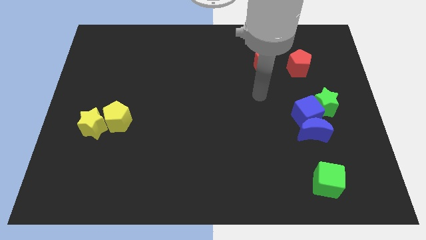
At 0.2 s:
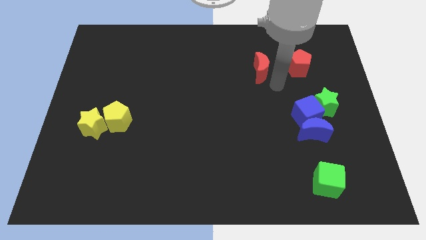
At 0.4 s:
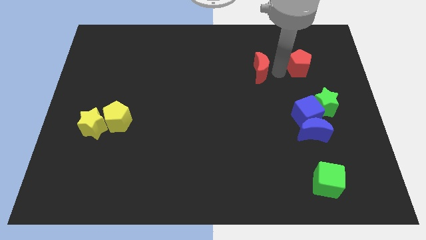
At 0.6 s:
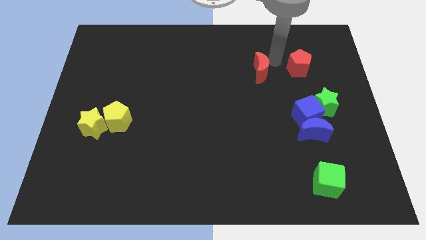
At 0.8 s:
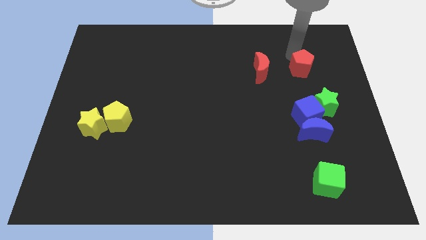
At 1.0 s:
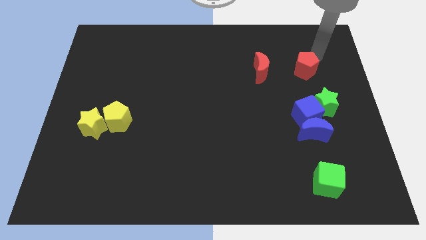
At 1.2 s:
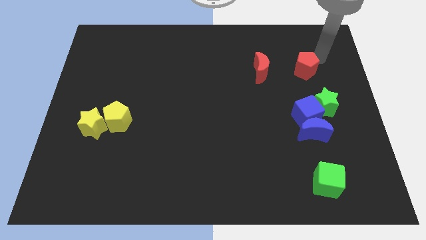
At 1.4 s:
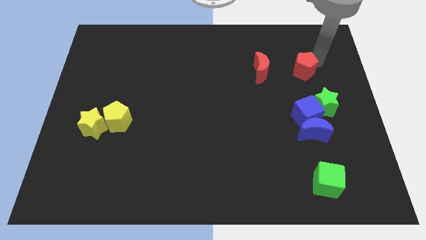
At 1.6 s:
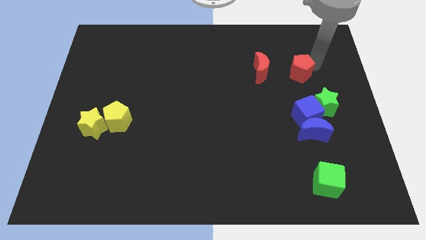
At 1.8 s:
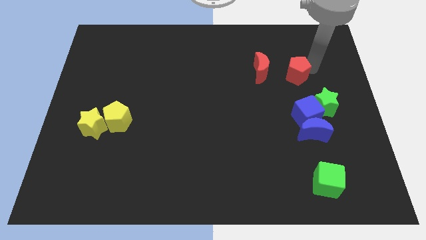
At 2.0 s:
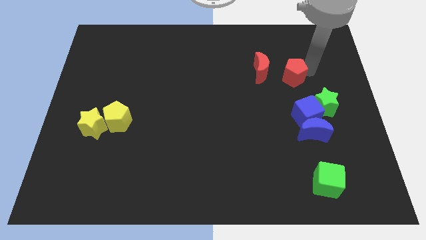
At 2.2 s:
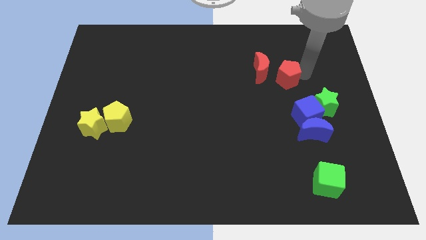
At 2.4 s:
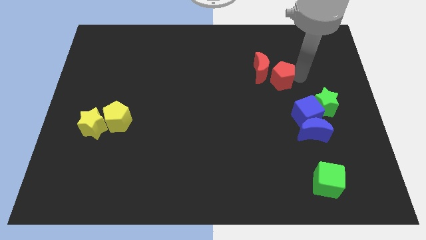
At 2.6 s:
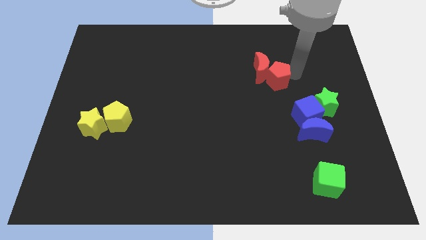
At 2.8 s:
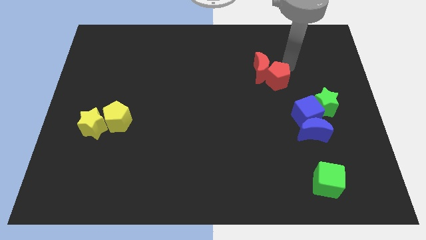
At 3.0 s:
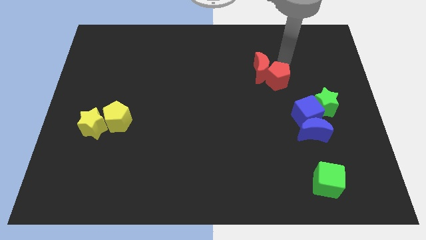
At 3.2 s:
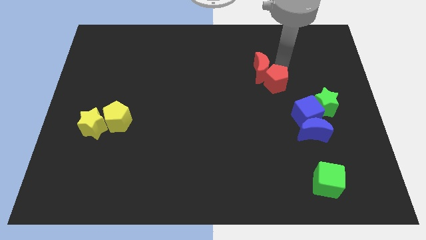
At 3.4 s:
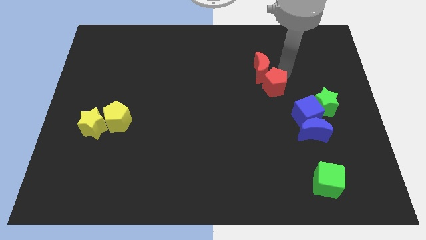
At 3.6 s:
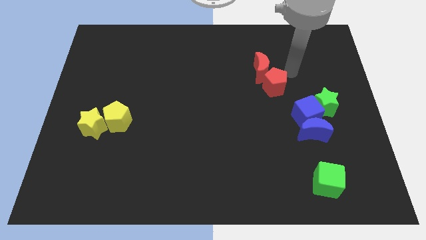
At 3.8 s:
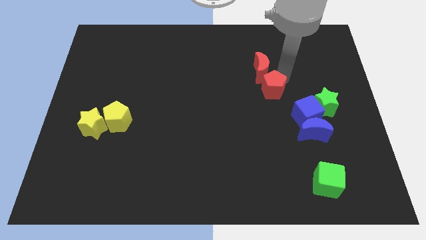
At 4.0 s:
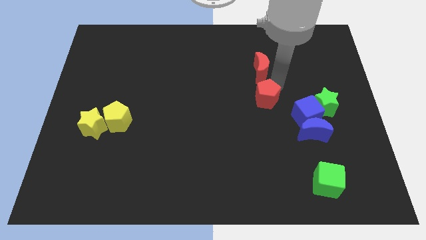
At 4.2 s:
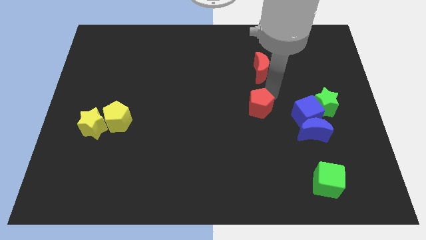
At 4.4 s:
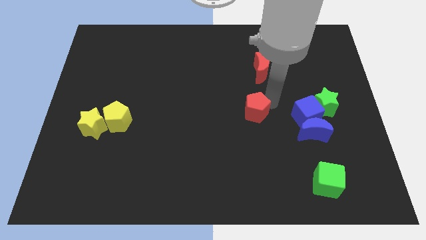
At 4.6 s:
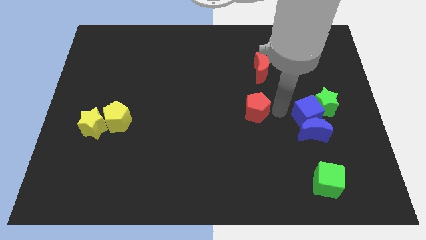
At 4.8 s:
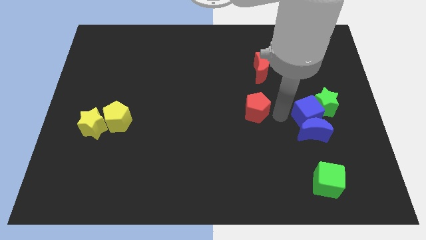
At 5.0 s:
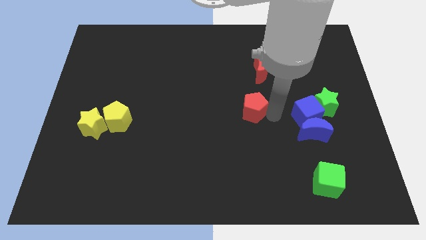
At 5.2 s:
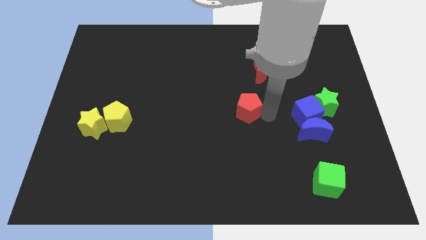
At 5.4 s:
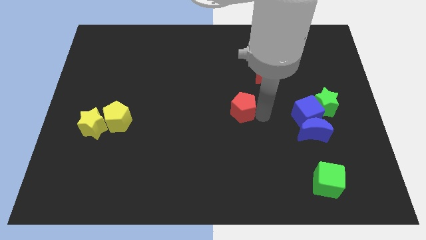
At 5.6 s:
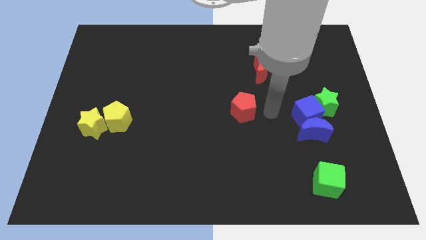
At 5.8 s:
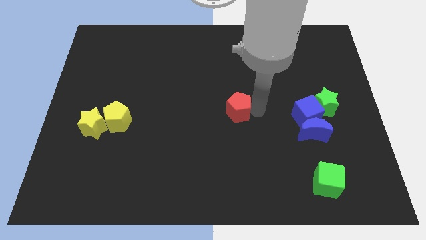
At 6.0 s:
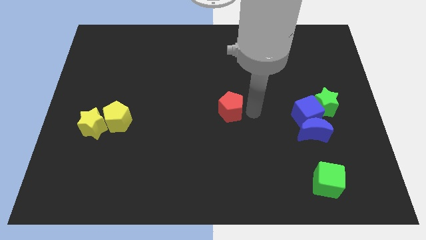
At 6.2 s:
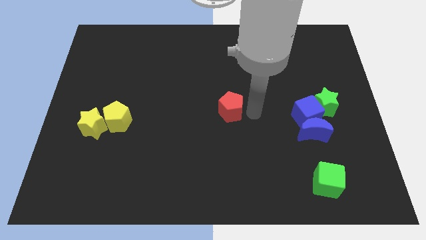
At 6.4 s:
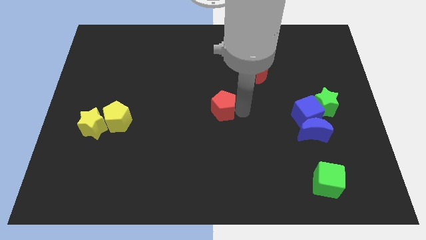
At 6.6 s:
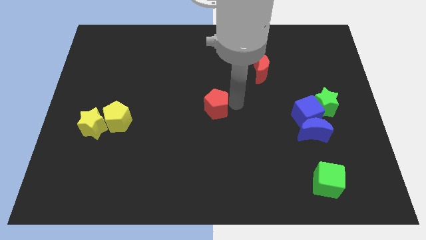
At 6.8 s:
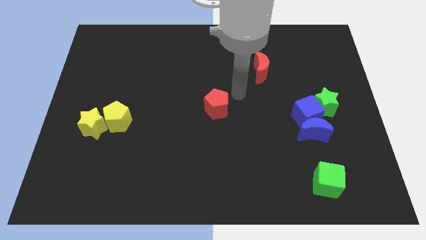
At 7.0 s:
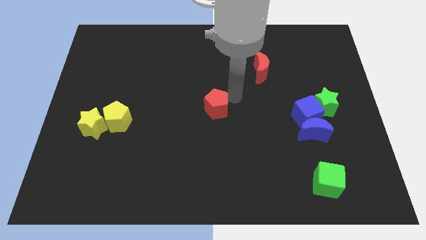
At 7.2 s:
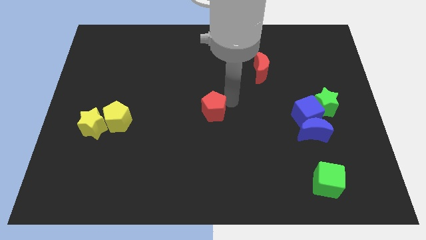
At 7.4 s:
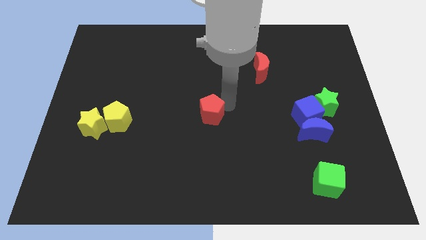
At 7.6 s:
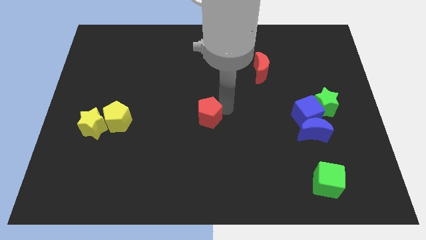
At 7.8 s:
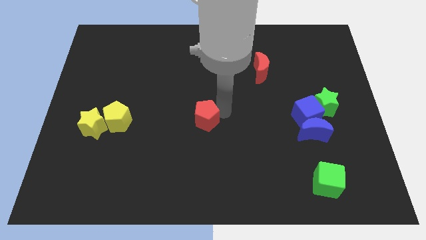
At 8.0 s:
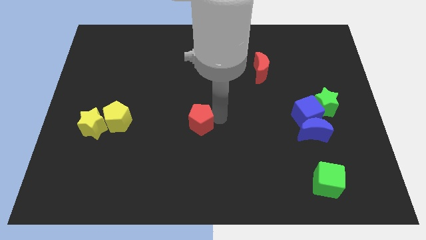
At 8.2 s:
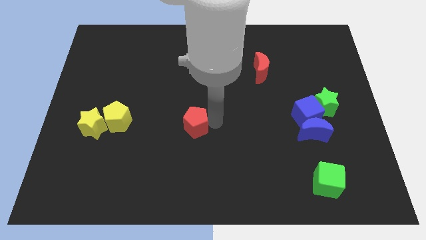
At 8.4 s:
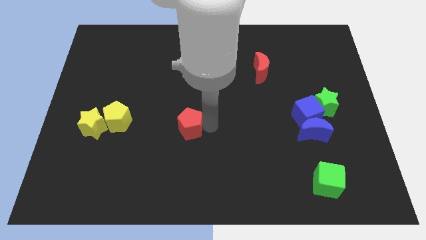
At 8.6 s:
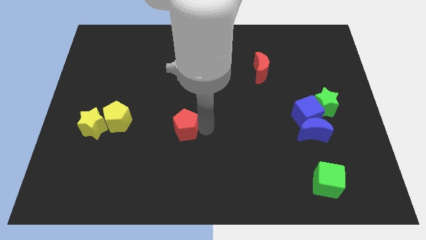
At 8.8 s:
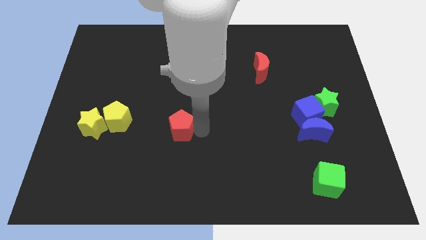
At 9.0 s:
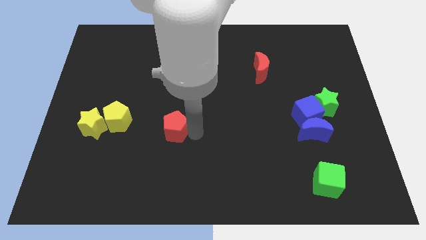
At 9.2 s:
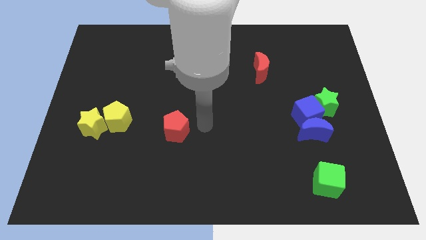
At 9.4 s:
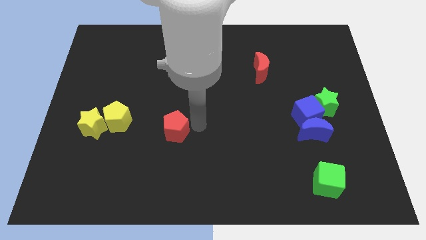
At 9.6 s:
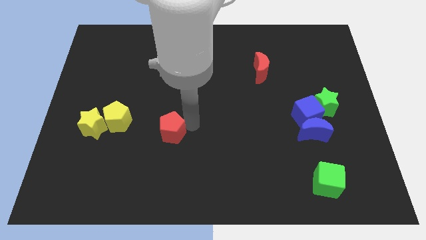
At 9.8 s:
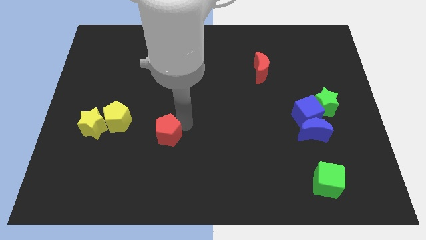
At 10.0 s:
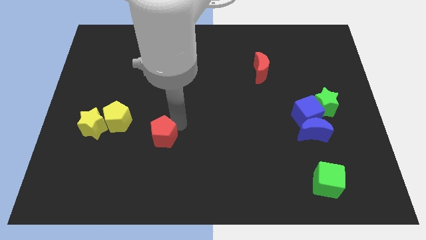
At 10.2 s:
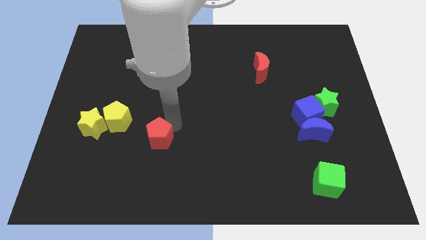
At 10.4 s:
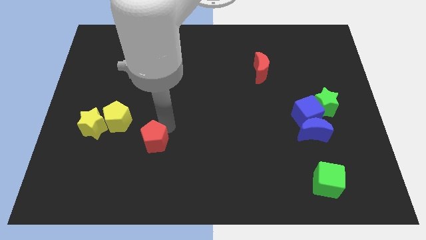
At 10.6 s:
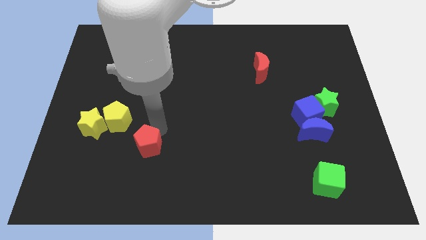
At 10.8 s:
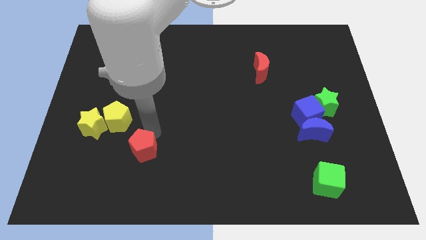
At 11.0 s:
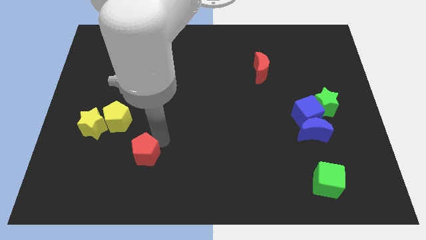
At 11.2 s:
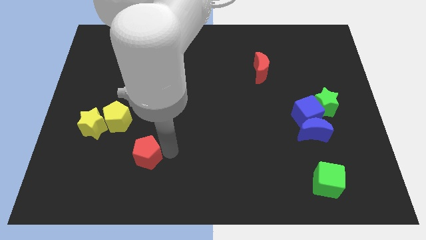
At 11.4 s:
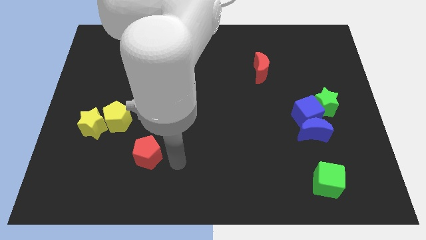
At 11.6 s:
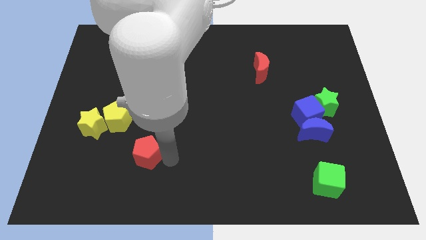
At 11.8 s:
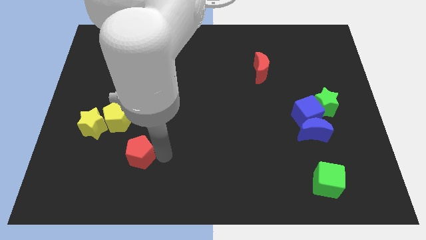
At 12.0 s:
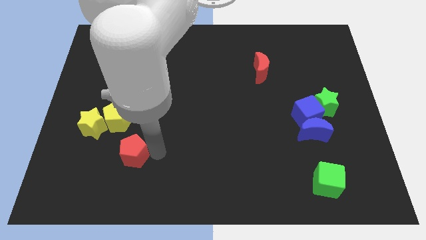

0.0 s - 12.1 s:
push the red pentagon to the bottom right of the yellow star

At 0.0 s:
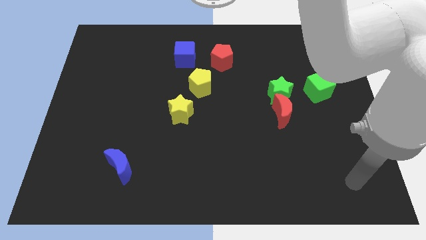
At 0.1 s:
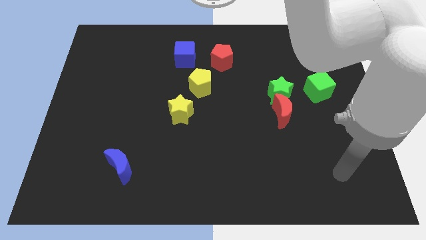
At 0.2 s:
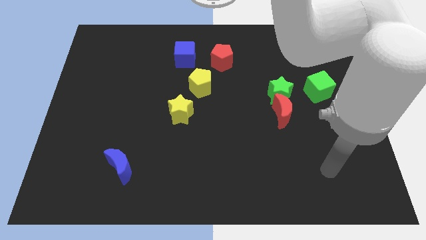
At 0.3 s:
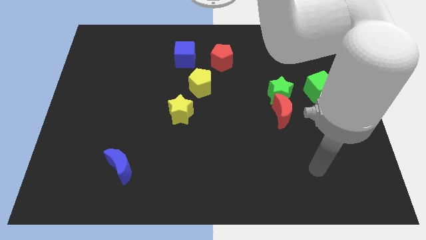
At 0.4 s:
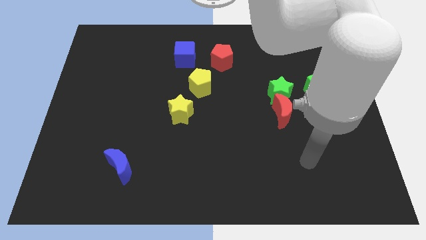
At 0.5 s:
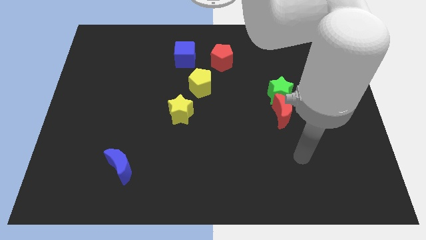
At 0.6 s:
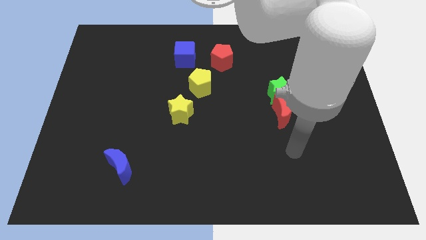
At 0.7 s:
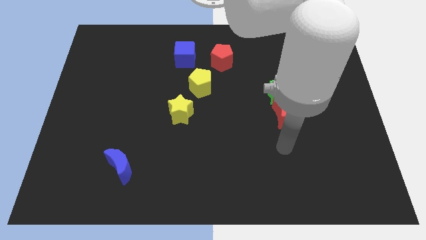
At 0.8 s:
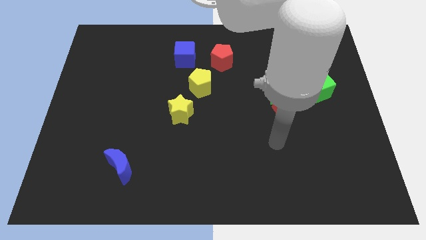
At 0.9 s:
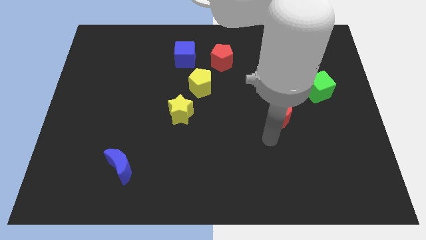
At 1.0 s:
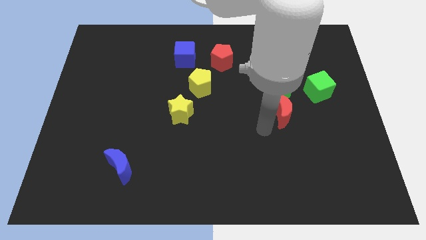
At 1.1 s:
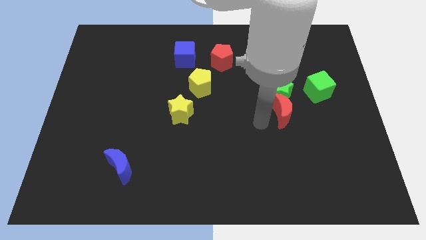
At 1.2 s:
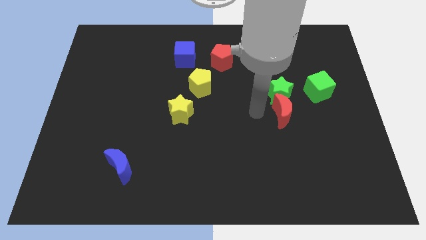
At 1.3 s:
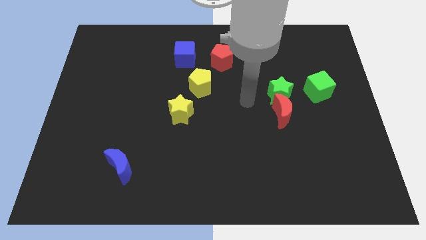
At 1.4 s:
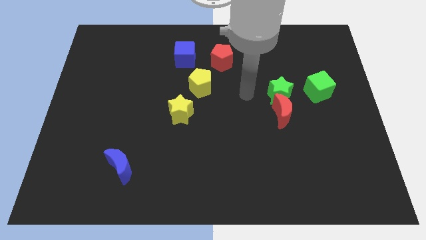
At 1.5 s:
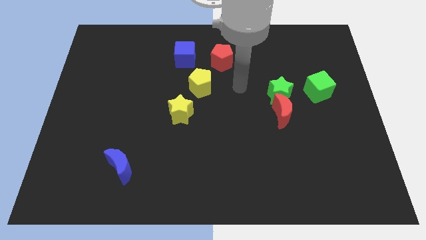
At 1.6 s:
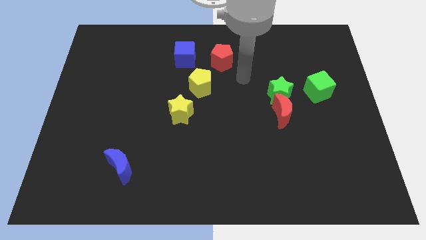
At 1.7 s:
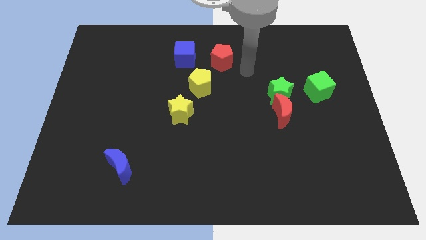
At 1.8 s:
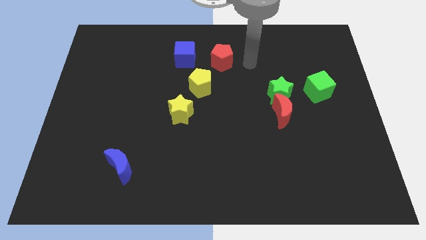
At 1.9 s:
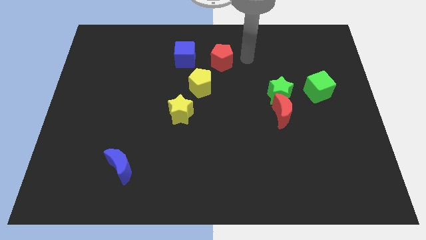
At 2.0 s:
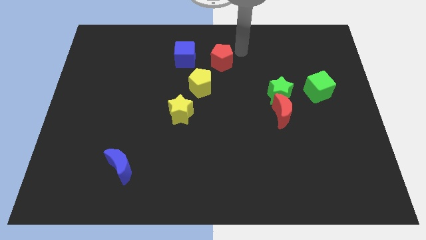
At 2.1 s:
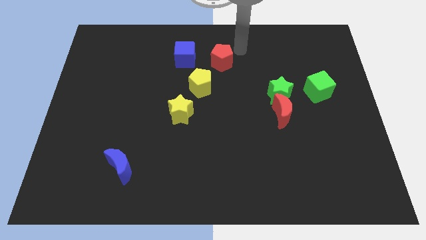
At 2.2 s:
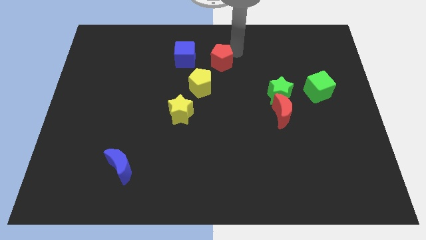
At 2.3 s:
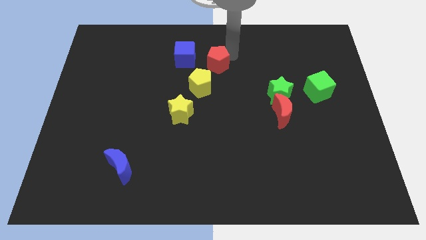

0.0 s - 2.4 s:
push the red pentagon diagonally down and to the right of the blue cube
